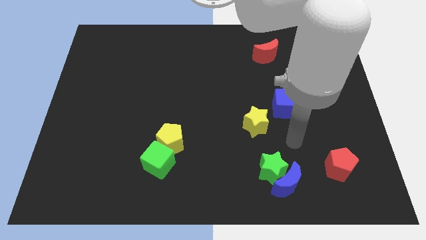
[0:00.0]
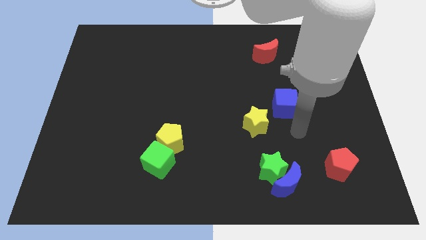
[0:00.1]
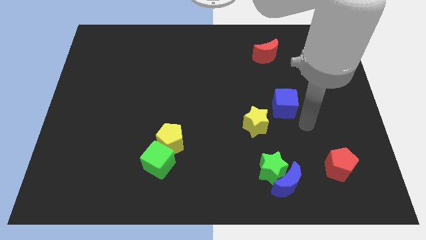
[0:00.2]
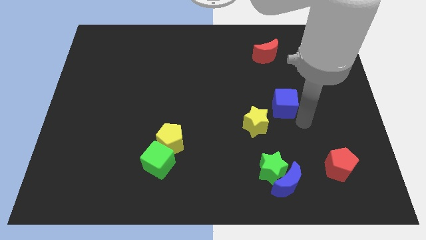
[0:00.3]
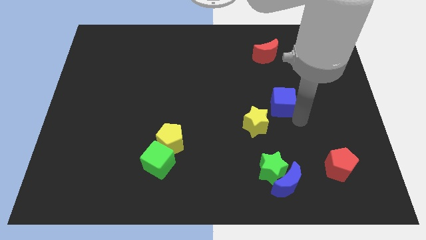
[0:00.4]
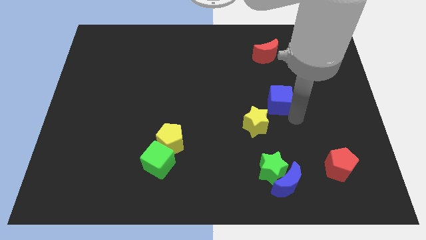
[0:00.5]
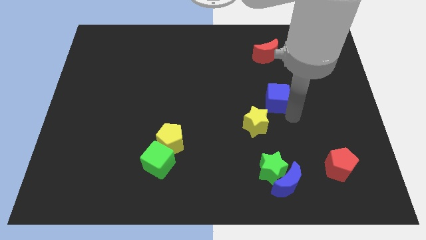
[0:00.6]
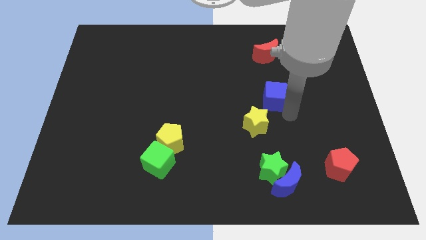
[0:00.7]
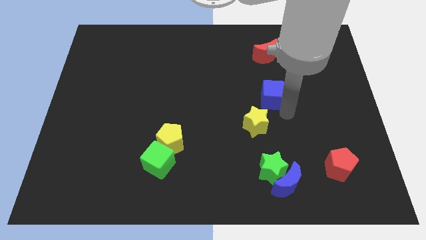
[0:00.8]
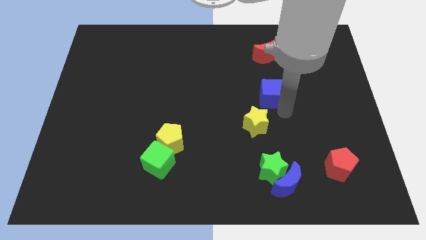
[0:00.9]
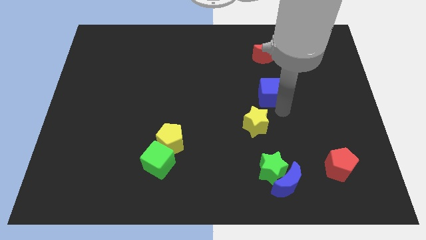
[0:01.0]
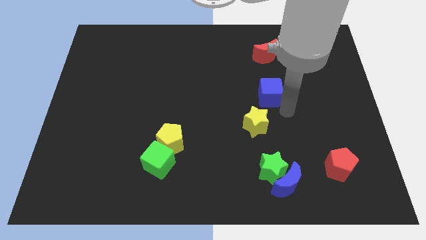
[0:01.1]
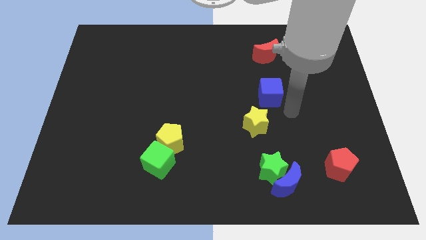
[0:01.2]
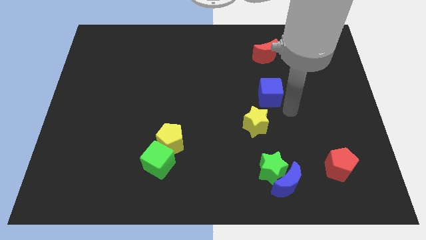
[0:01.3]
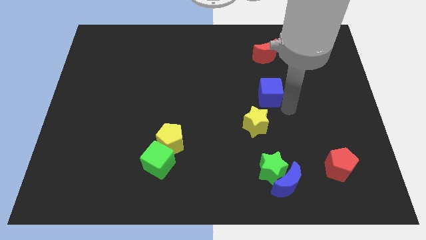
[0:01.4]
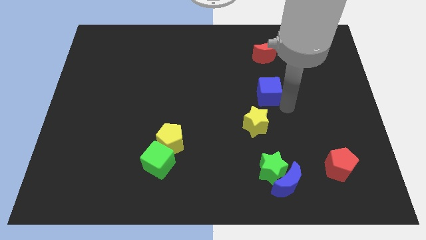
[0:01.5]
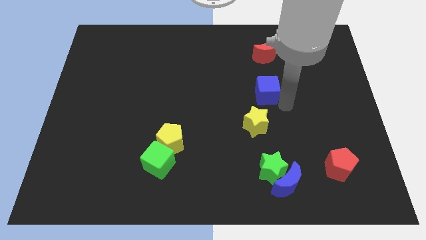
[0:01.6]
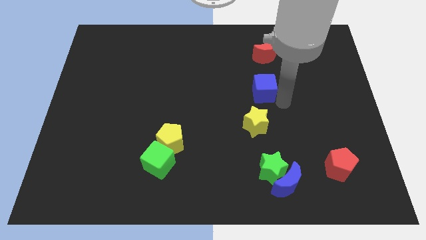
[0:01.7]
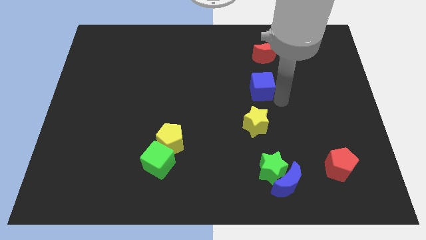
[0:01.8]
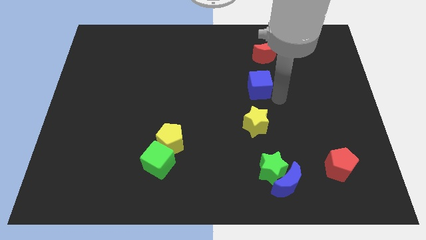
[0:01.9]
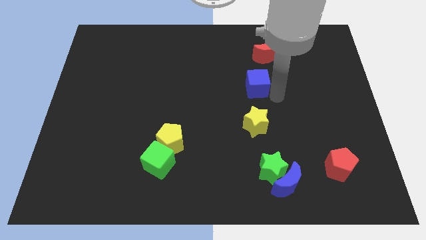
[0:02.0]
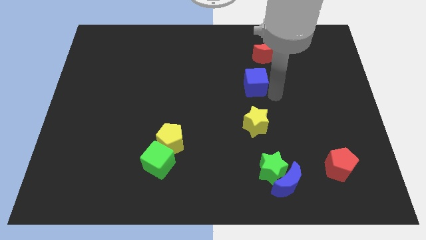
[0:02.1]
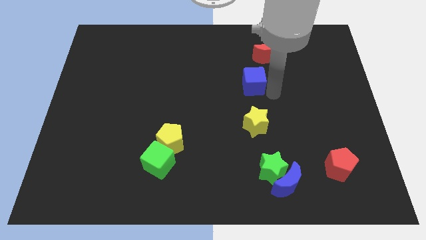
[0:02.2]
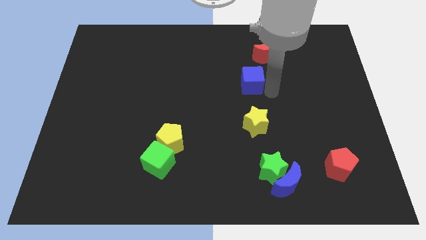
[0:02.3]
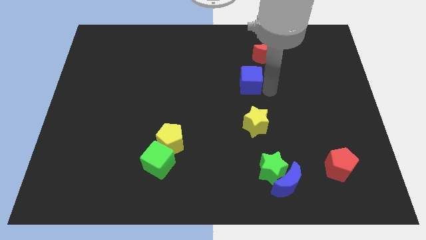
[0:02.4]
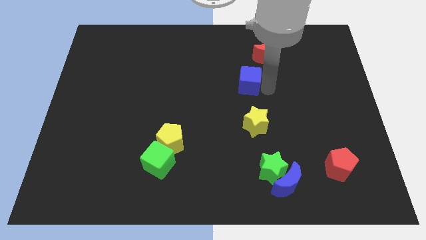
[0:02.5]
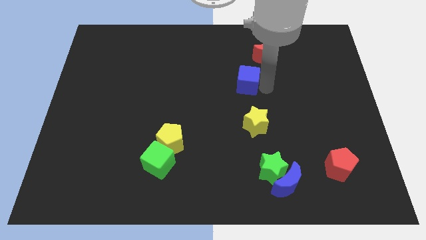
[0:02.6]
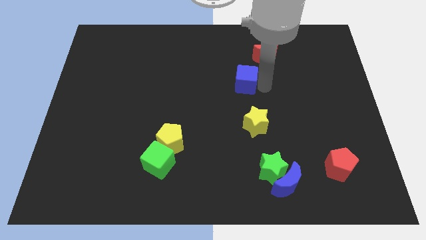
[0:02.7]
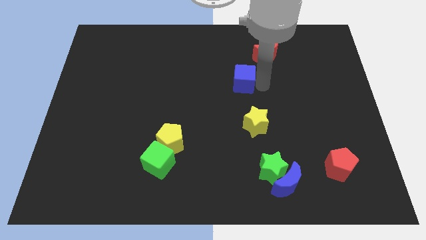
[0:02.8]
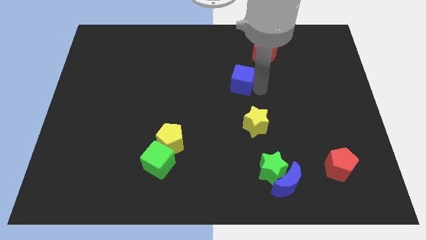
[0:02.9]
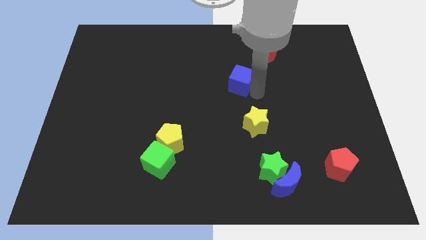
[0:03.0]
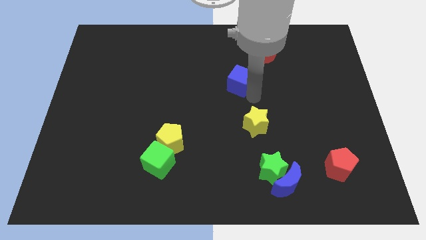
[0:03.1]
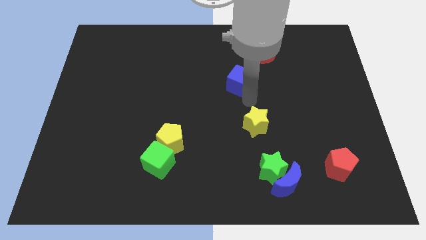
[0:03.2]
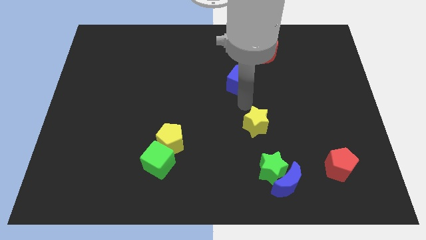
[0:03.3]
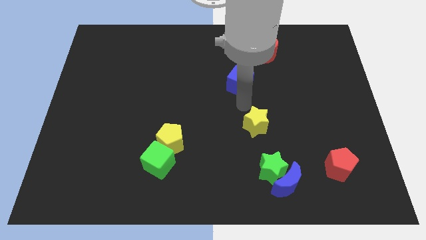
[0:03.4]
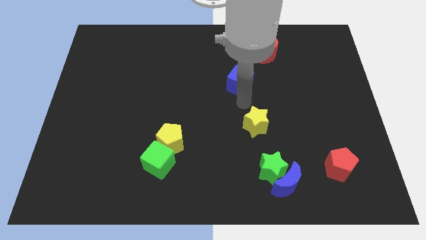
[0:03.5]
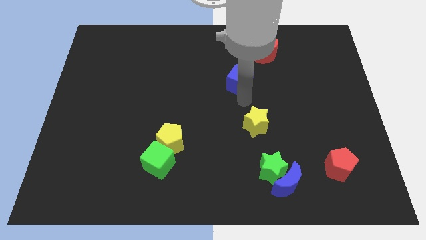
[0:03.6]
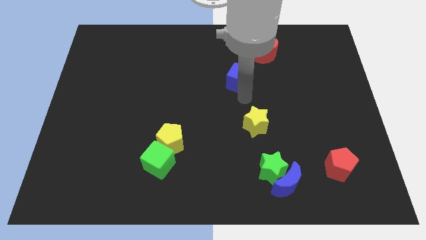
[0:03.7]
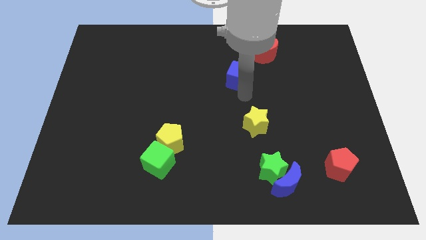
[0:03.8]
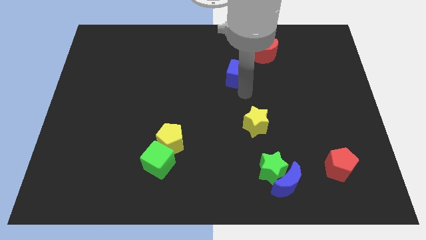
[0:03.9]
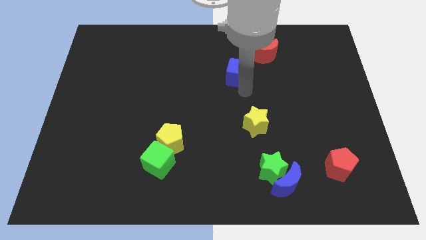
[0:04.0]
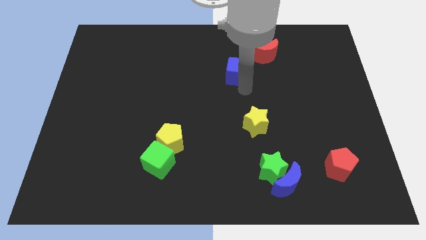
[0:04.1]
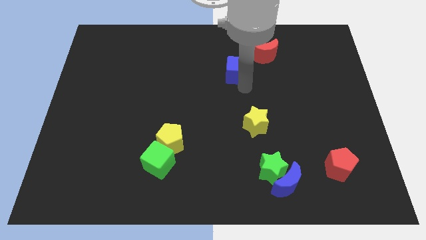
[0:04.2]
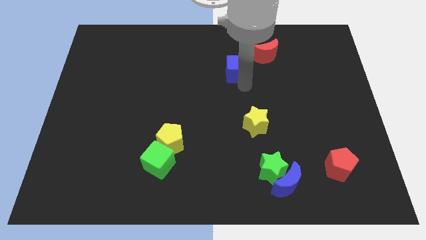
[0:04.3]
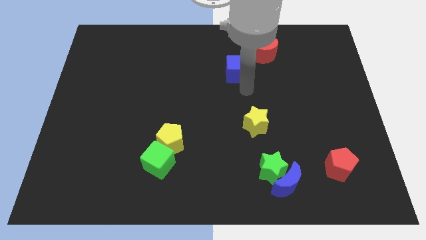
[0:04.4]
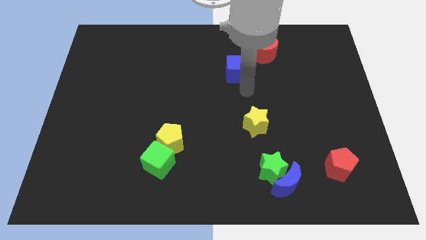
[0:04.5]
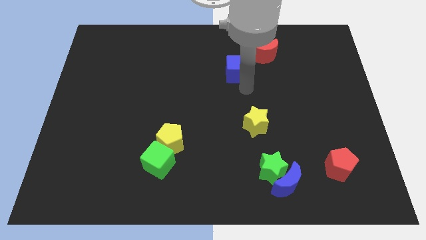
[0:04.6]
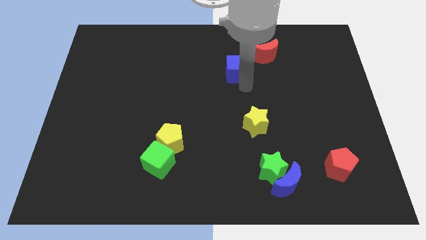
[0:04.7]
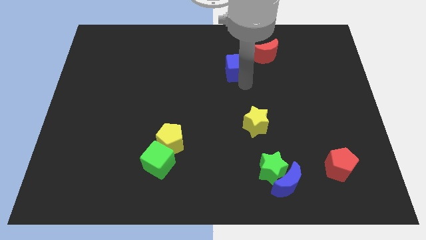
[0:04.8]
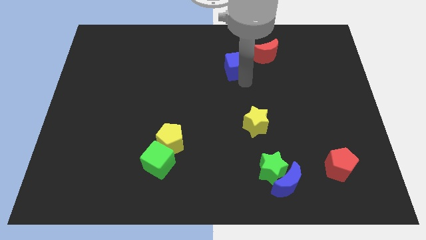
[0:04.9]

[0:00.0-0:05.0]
put the blue cube just left of the red moon

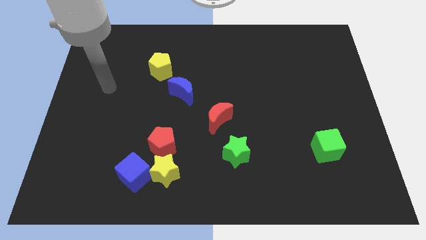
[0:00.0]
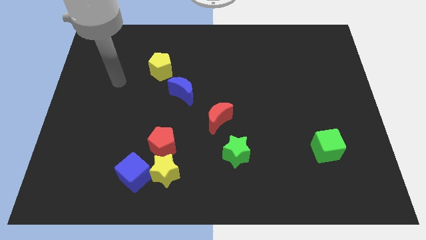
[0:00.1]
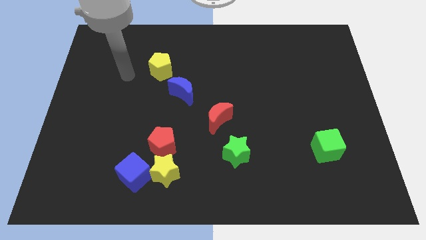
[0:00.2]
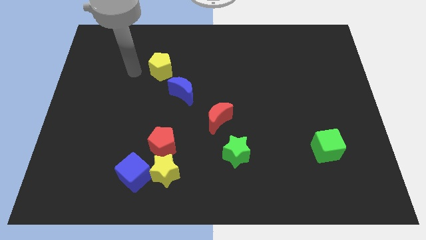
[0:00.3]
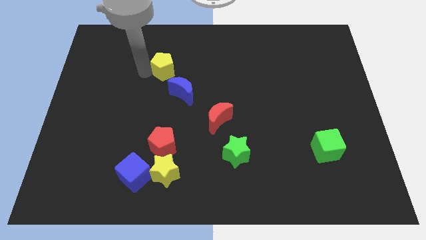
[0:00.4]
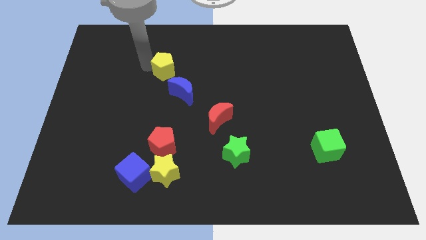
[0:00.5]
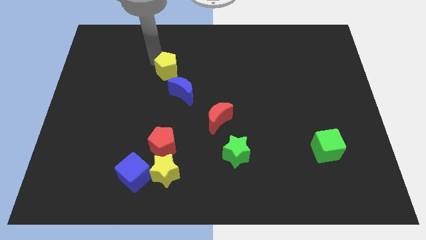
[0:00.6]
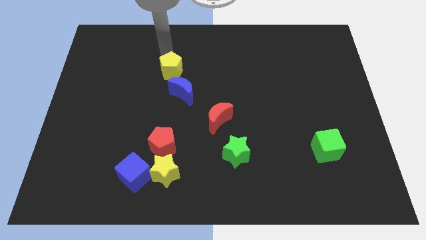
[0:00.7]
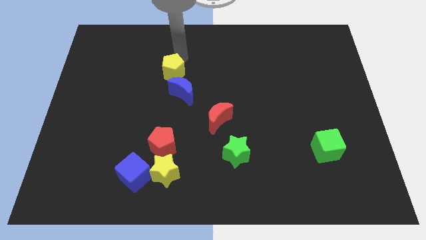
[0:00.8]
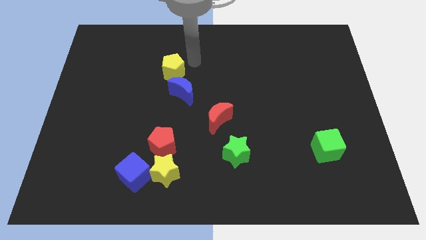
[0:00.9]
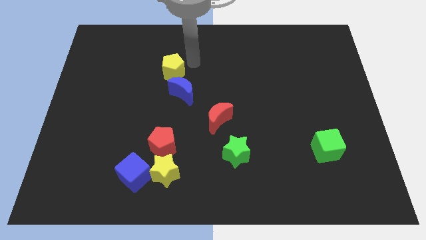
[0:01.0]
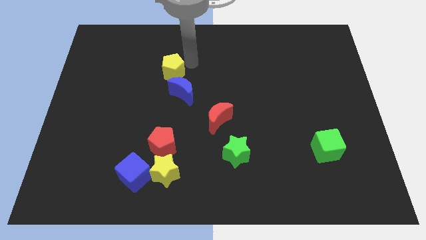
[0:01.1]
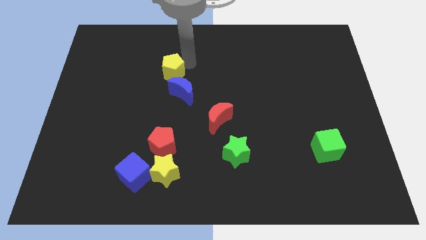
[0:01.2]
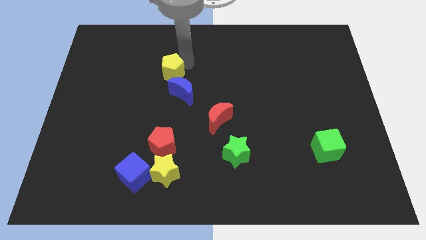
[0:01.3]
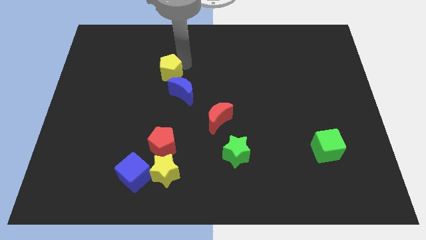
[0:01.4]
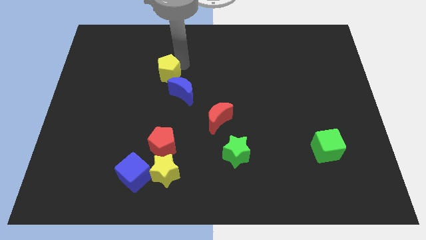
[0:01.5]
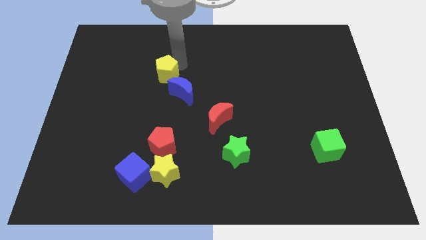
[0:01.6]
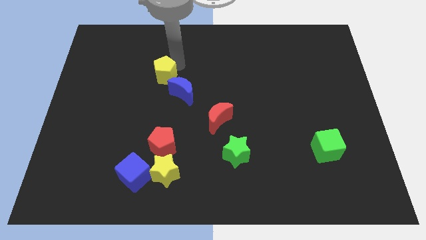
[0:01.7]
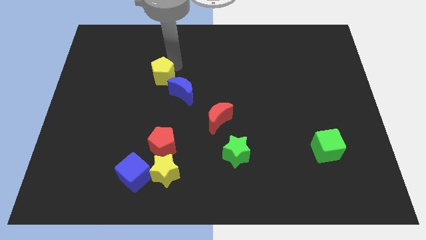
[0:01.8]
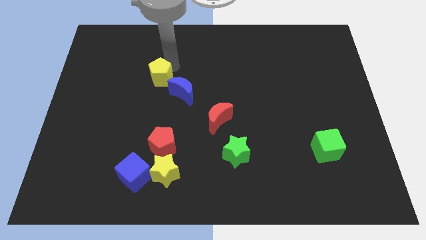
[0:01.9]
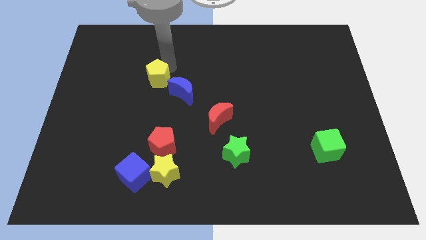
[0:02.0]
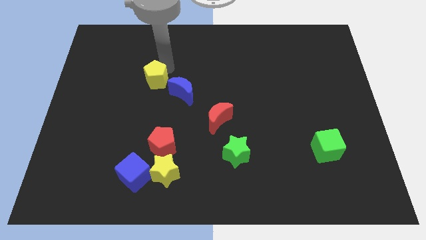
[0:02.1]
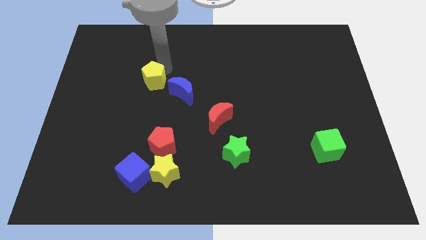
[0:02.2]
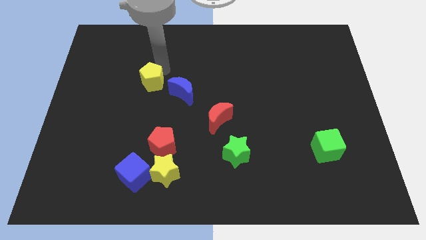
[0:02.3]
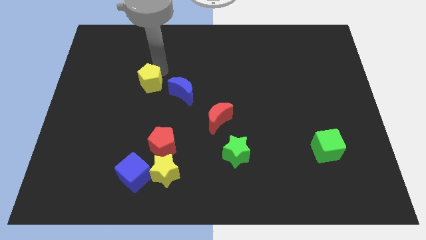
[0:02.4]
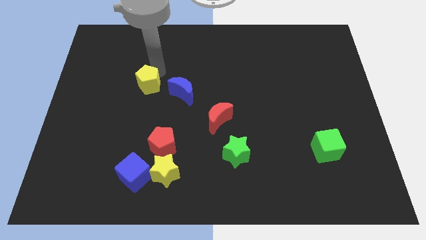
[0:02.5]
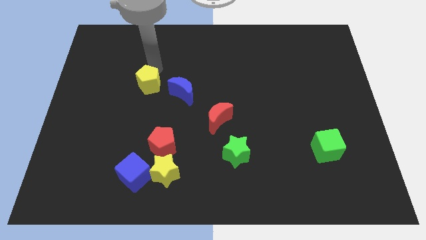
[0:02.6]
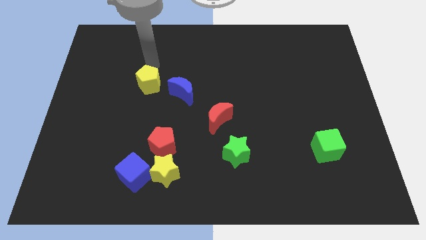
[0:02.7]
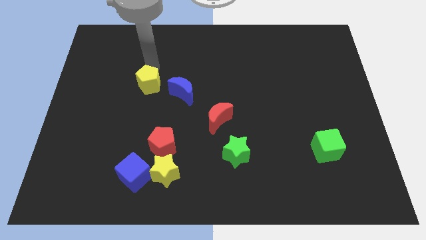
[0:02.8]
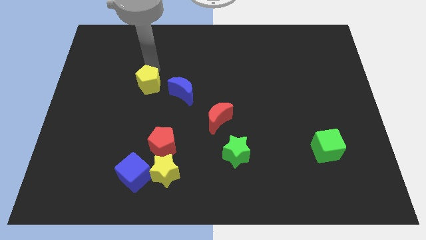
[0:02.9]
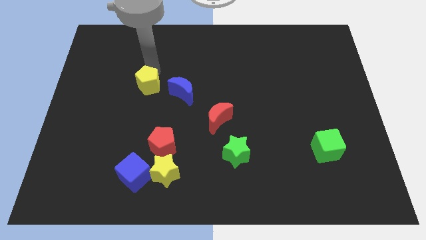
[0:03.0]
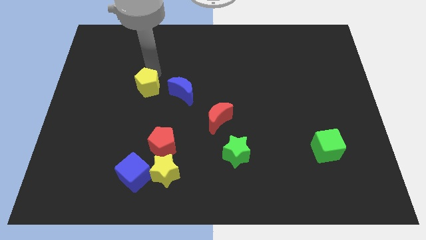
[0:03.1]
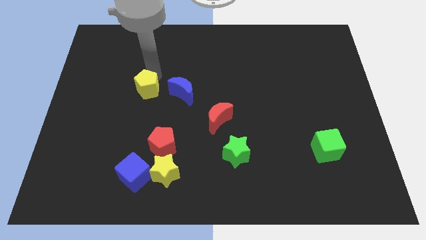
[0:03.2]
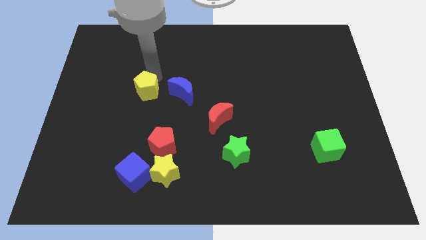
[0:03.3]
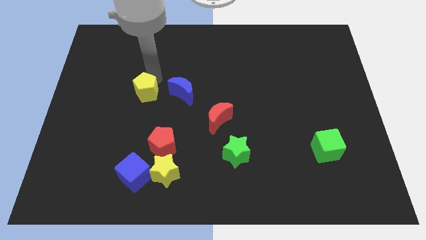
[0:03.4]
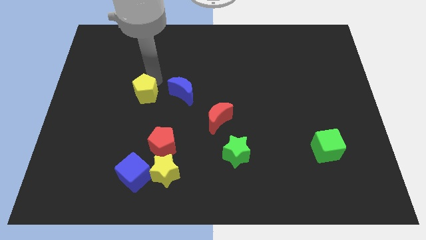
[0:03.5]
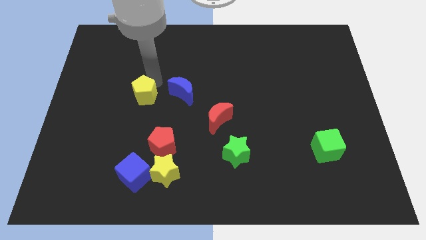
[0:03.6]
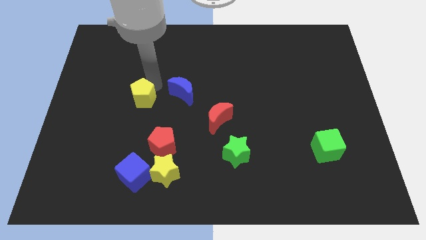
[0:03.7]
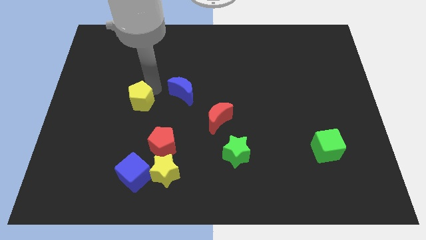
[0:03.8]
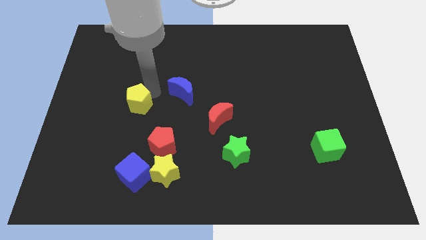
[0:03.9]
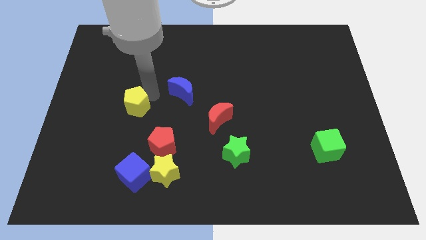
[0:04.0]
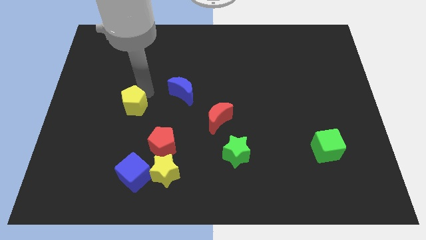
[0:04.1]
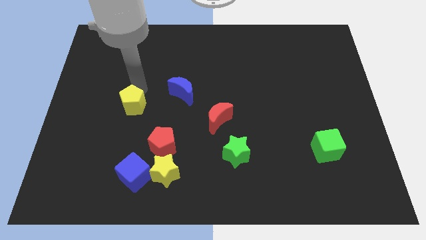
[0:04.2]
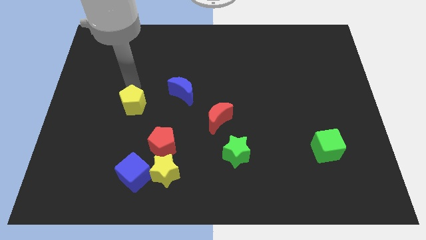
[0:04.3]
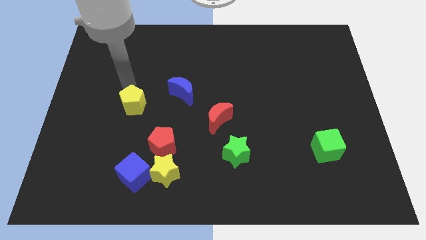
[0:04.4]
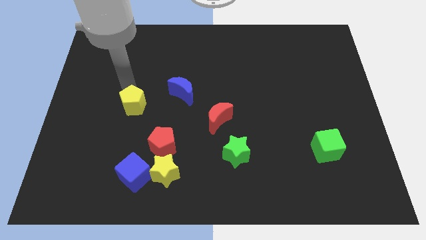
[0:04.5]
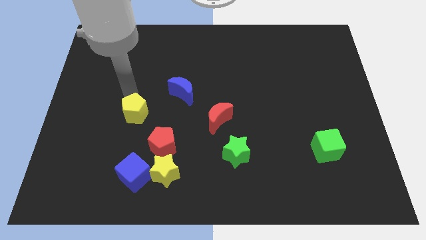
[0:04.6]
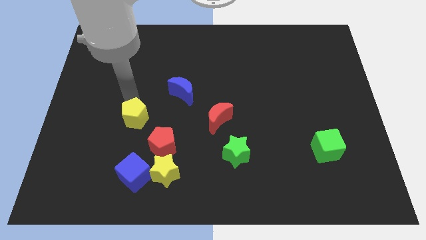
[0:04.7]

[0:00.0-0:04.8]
slide the yellow pentagon to the top of the blue cube
